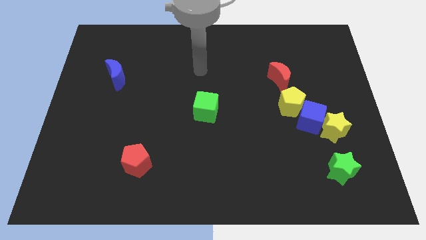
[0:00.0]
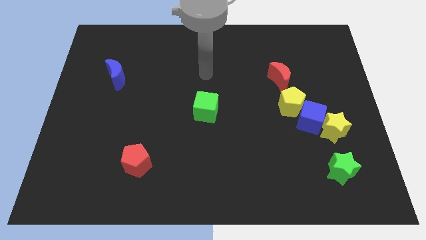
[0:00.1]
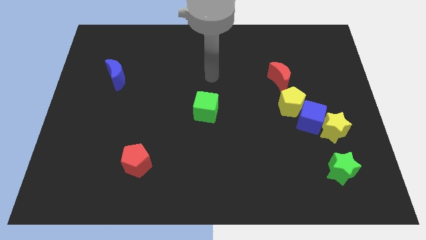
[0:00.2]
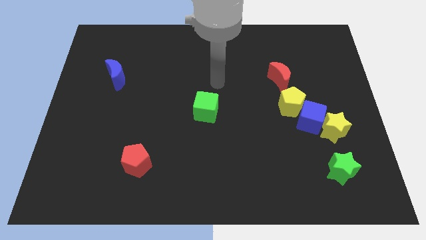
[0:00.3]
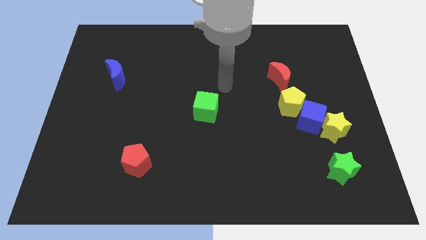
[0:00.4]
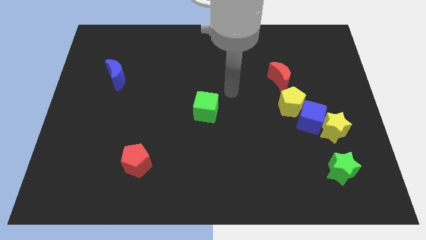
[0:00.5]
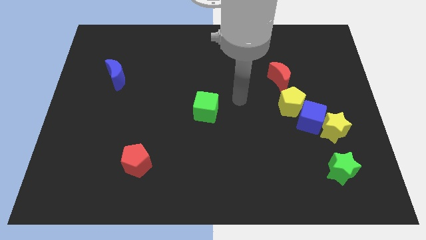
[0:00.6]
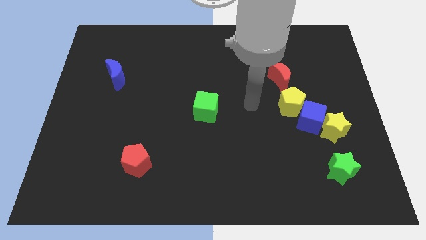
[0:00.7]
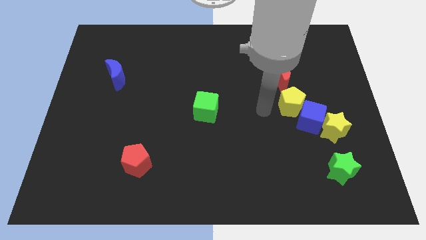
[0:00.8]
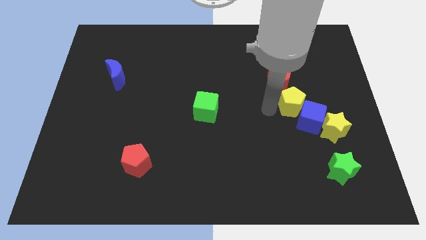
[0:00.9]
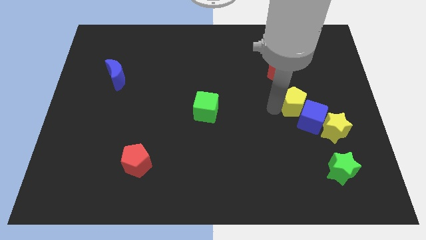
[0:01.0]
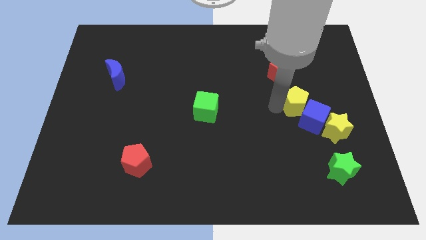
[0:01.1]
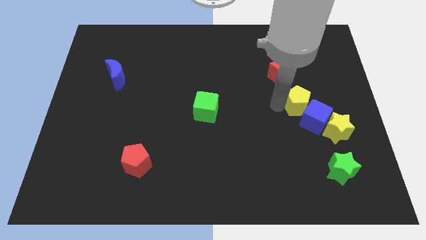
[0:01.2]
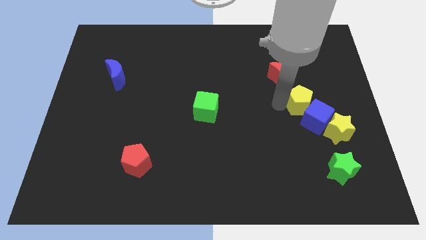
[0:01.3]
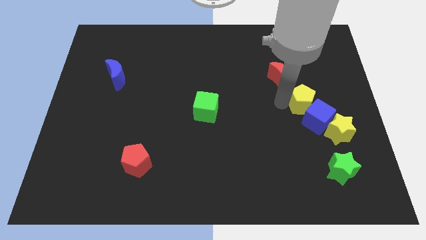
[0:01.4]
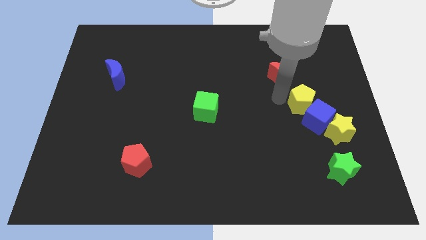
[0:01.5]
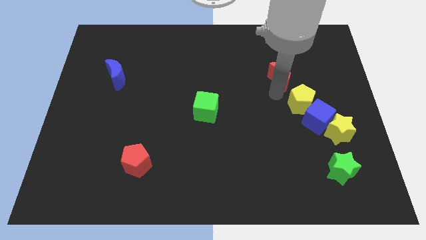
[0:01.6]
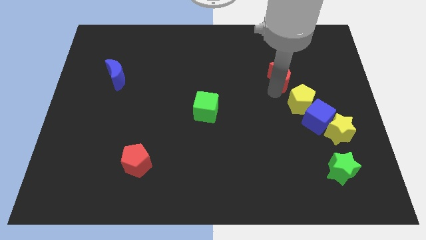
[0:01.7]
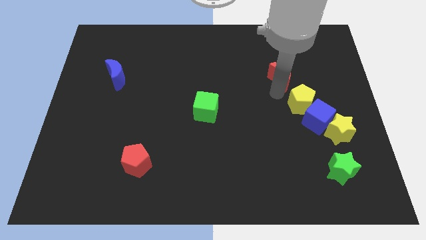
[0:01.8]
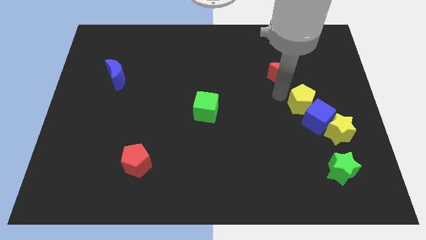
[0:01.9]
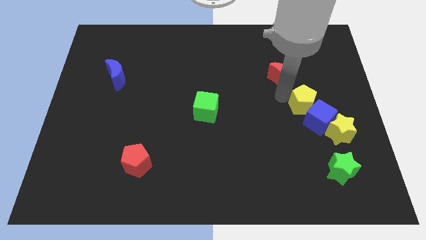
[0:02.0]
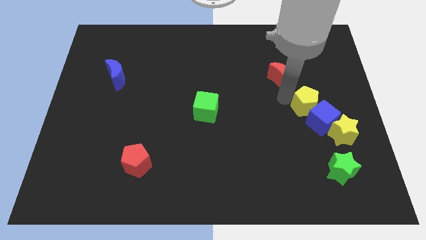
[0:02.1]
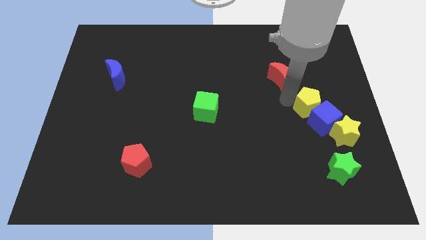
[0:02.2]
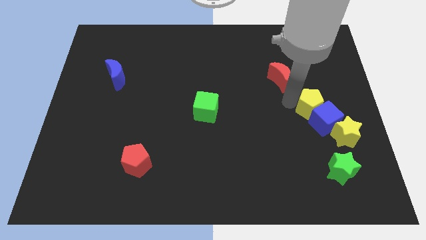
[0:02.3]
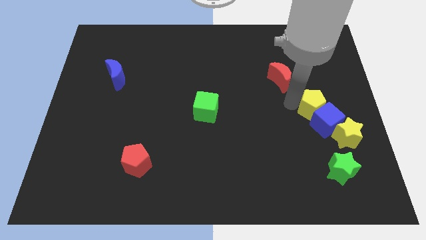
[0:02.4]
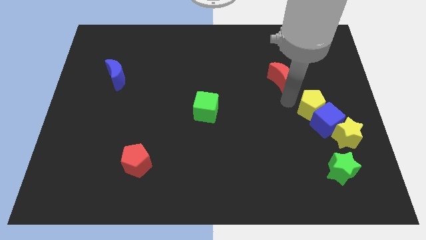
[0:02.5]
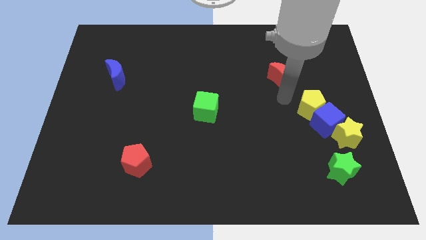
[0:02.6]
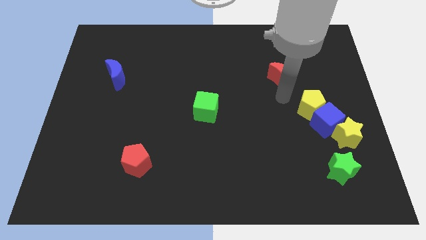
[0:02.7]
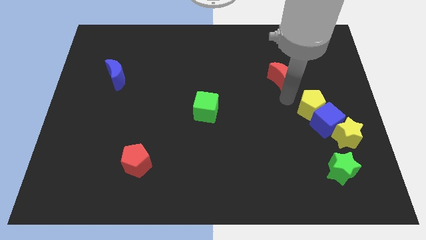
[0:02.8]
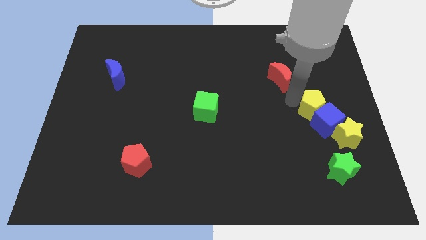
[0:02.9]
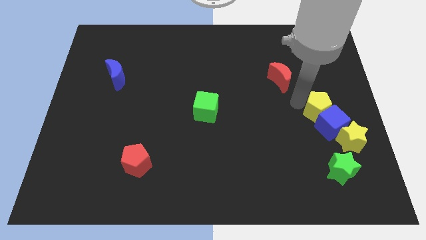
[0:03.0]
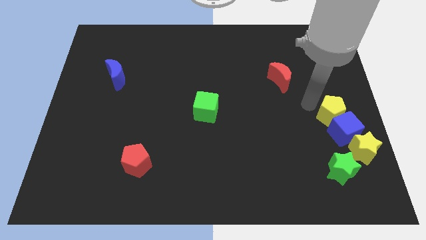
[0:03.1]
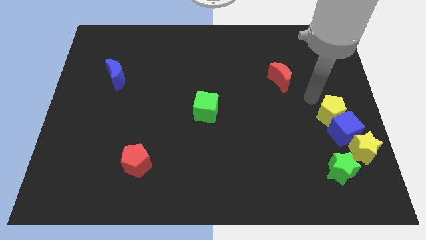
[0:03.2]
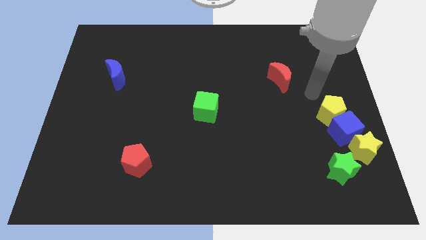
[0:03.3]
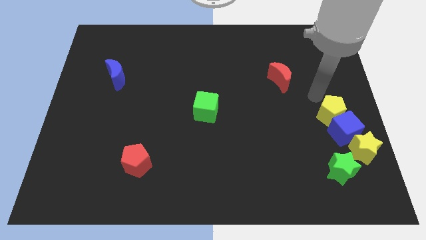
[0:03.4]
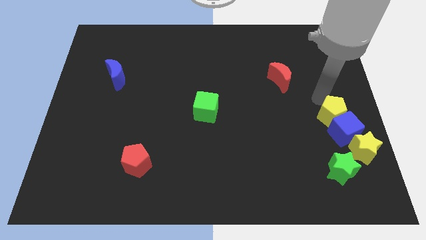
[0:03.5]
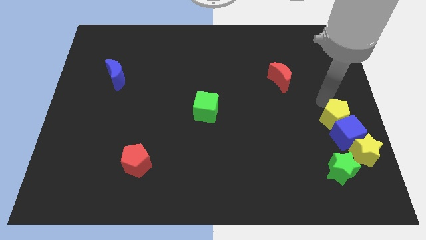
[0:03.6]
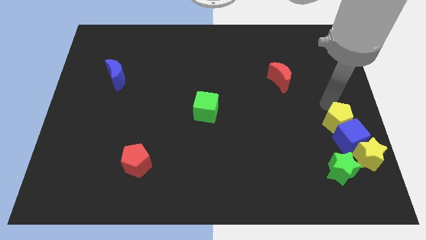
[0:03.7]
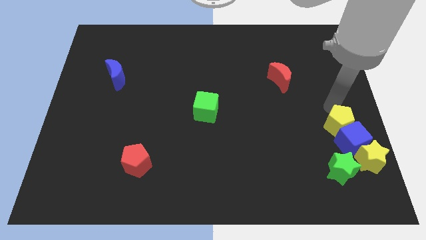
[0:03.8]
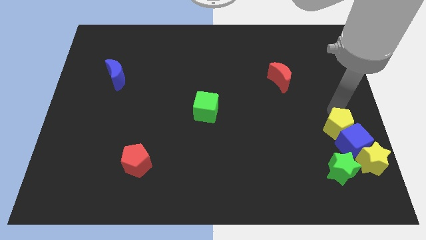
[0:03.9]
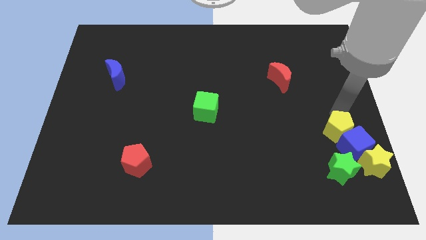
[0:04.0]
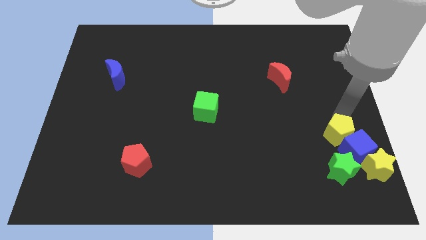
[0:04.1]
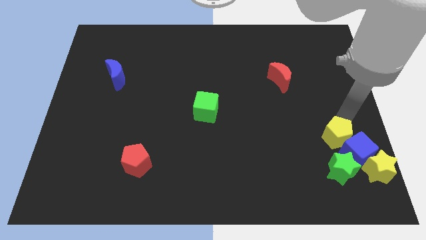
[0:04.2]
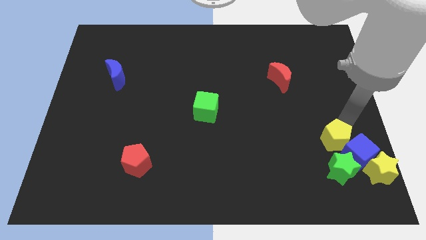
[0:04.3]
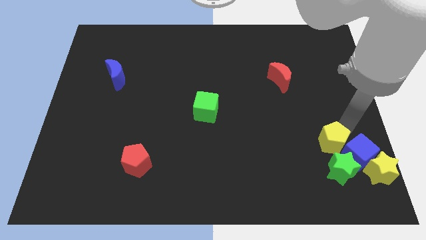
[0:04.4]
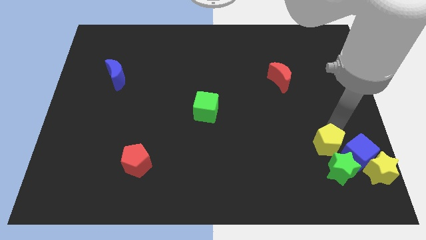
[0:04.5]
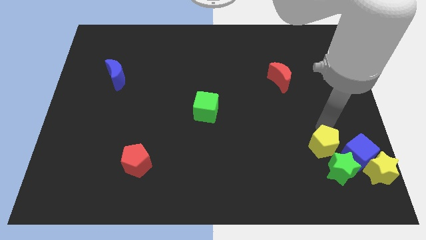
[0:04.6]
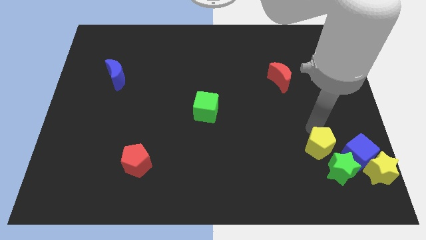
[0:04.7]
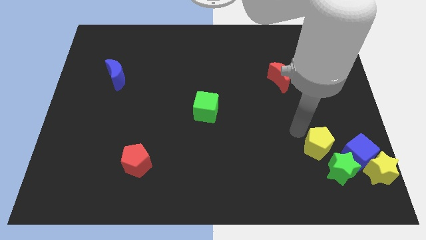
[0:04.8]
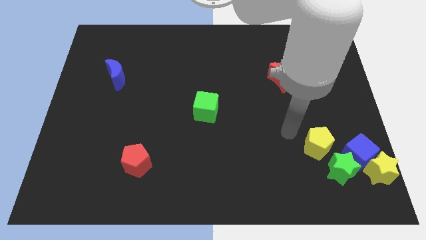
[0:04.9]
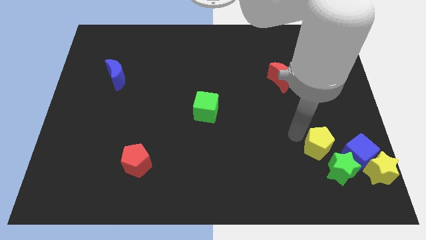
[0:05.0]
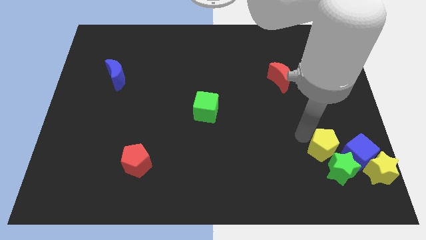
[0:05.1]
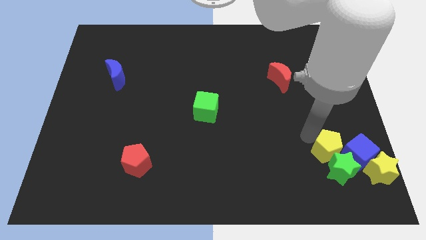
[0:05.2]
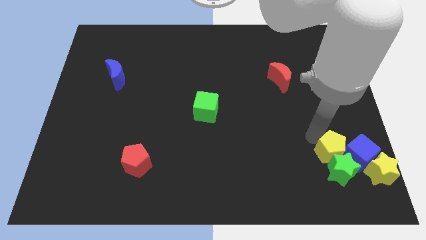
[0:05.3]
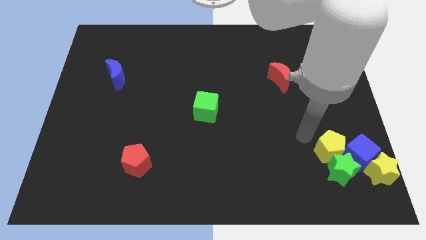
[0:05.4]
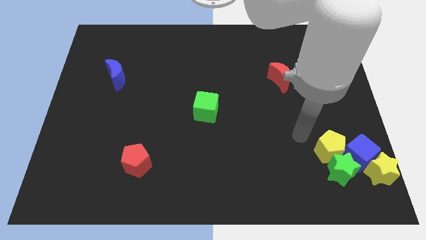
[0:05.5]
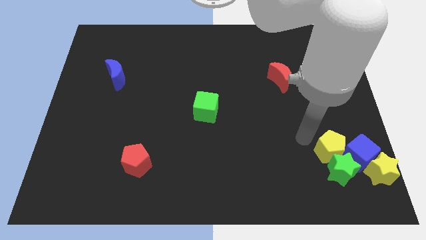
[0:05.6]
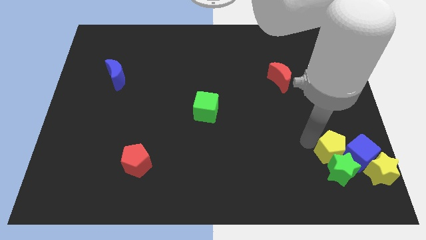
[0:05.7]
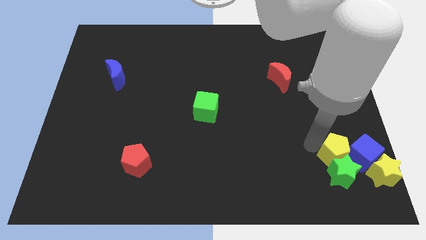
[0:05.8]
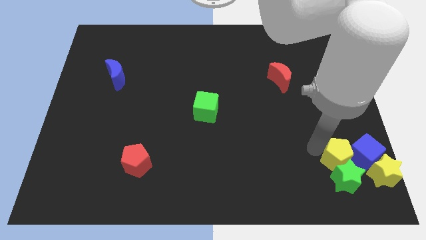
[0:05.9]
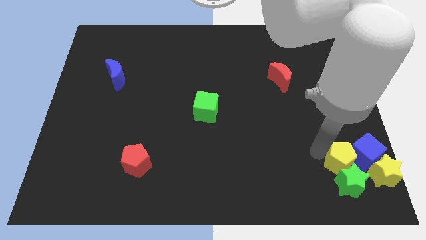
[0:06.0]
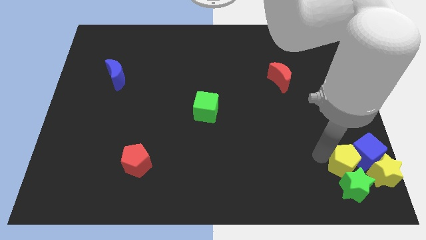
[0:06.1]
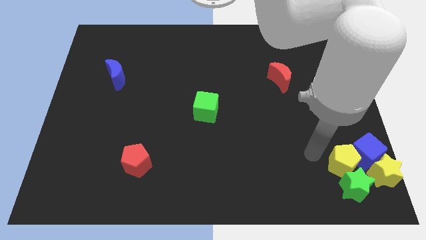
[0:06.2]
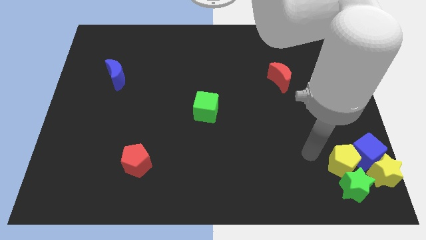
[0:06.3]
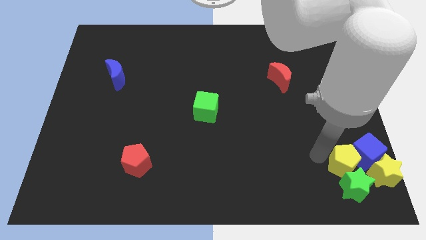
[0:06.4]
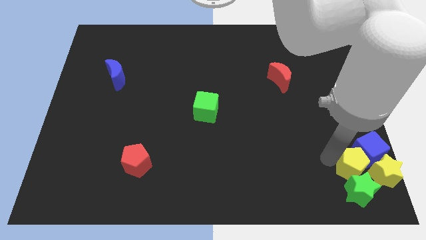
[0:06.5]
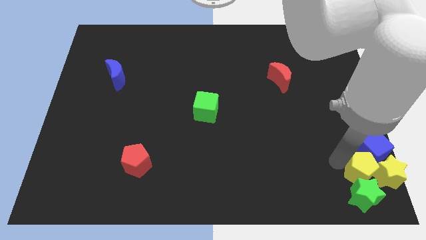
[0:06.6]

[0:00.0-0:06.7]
put the yellow pentagon to the yellow star
